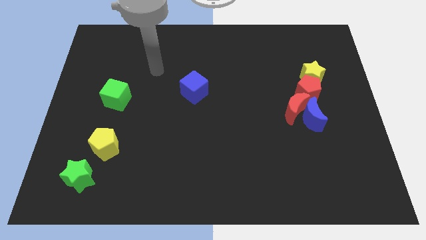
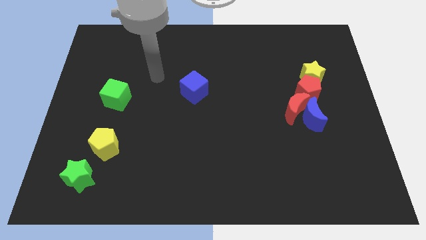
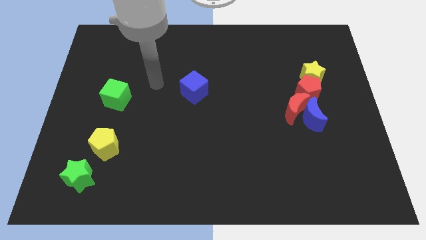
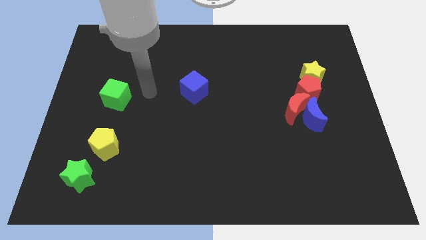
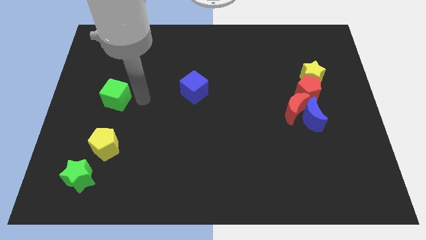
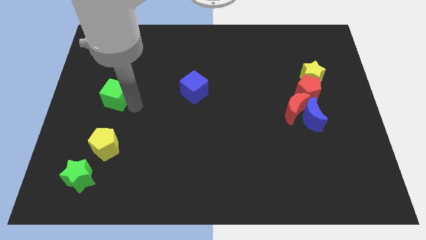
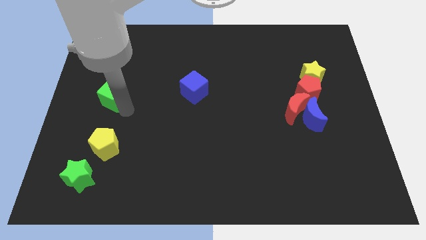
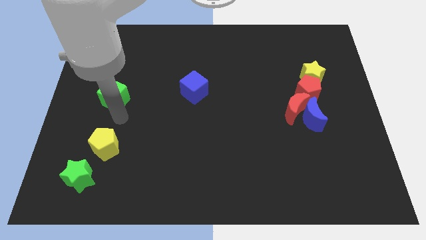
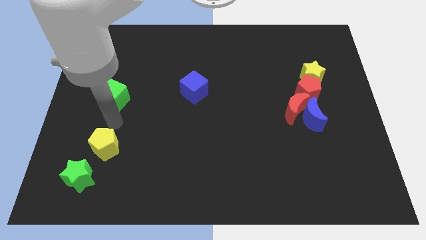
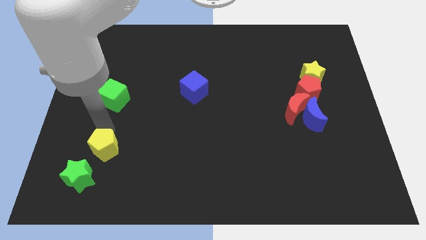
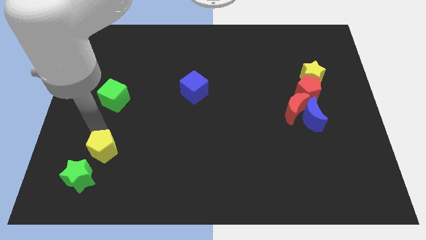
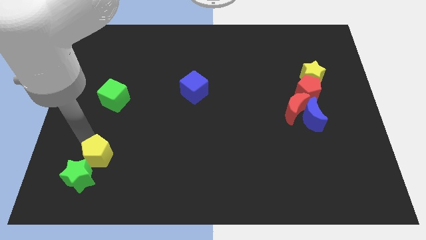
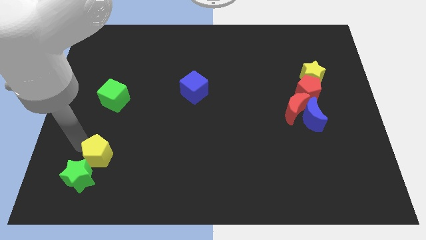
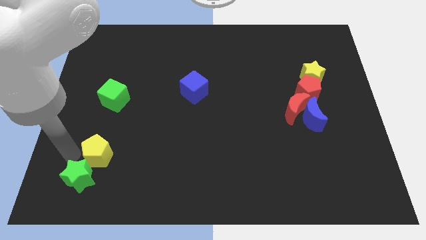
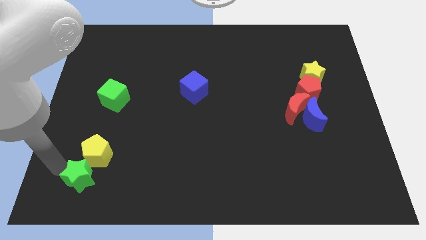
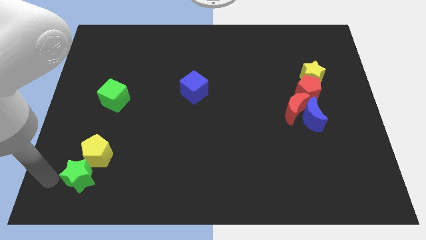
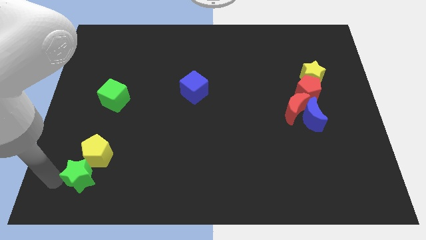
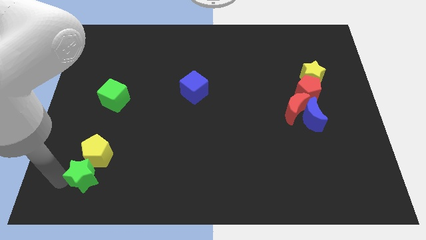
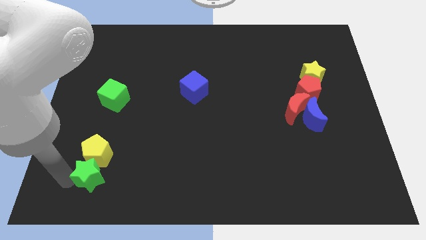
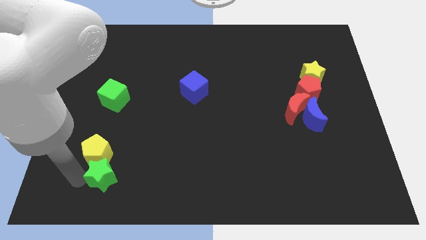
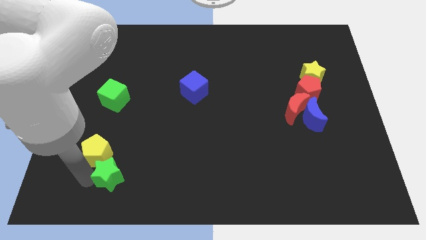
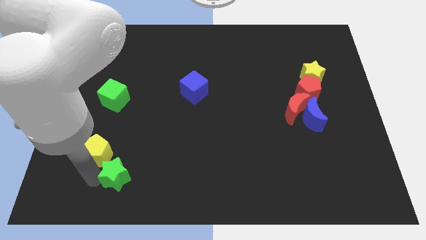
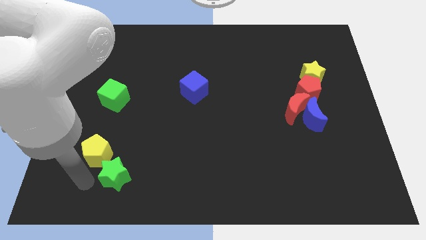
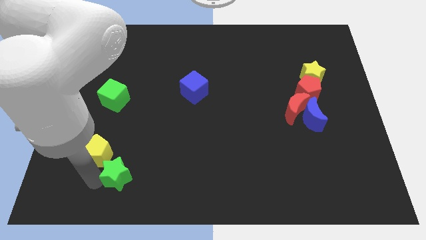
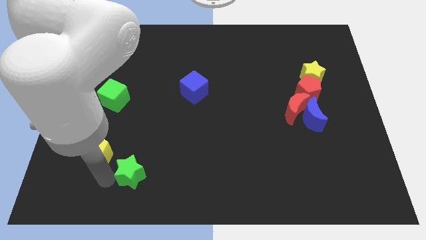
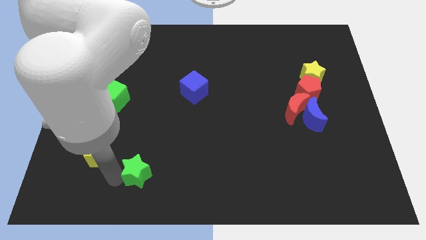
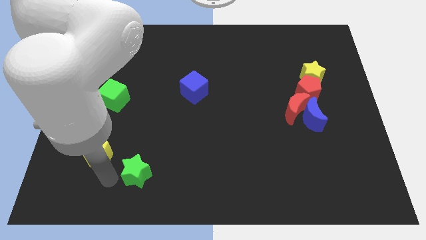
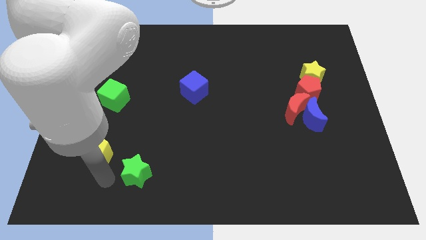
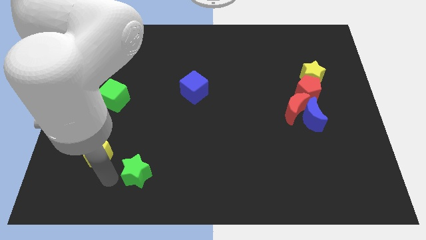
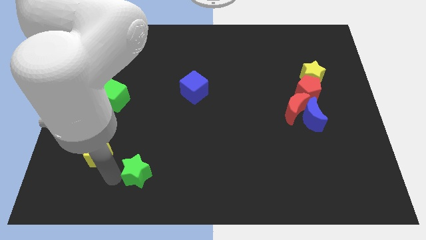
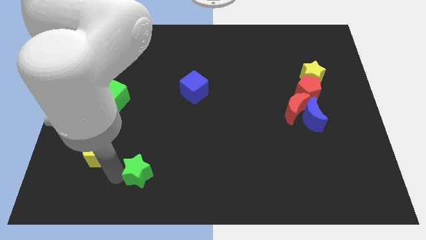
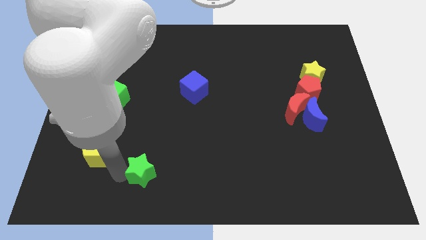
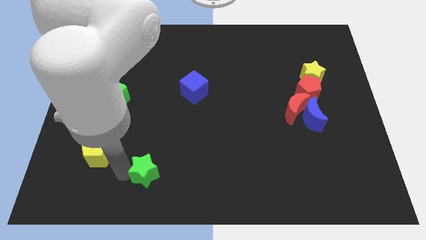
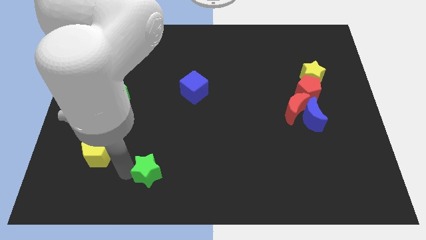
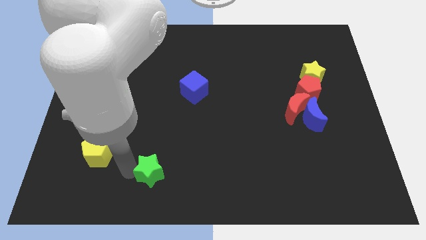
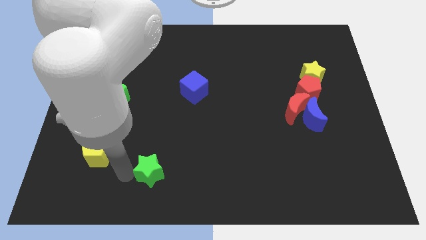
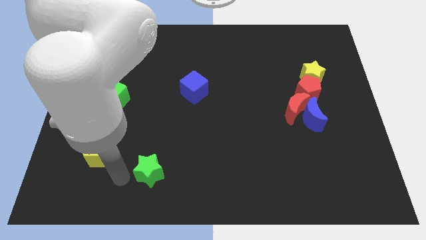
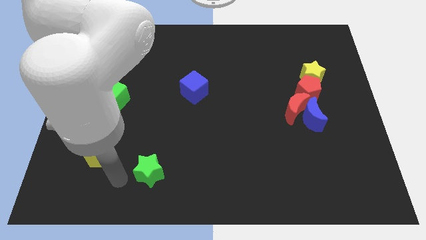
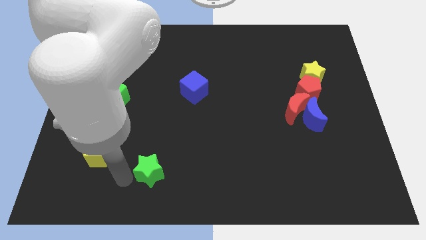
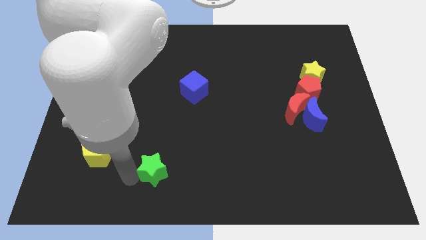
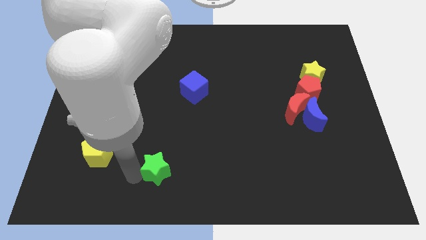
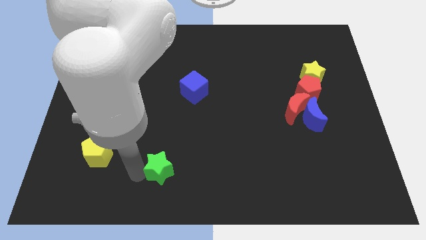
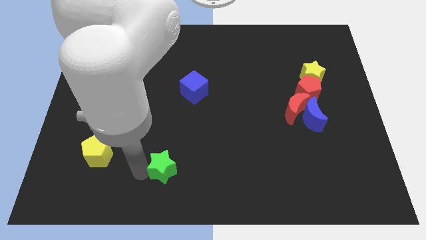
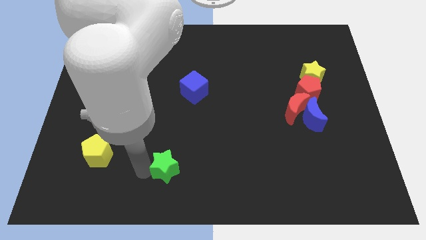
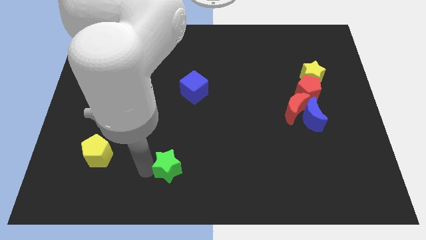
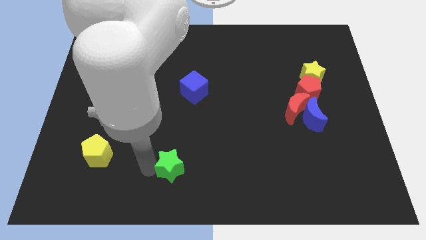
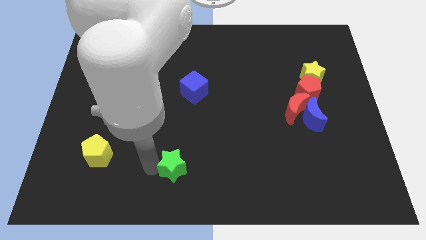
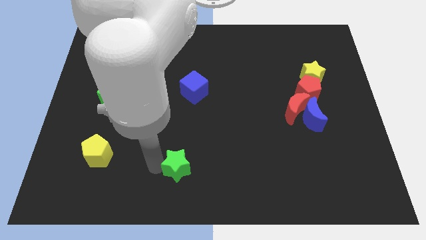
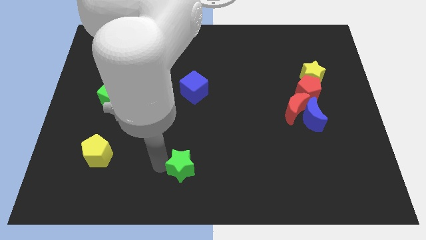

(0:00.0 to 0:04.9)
move the green star to the right

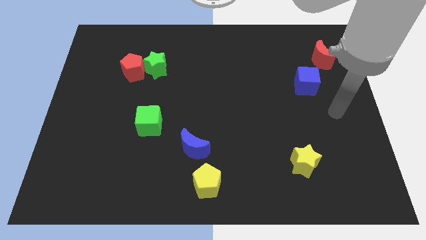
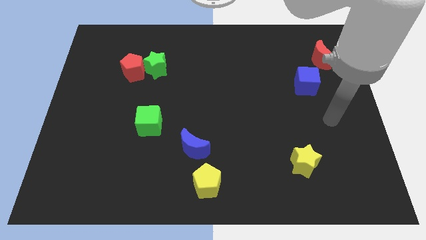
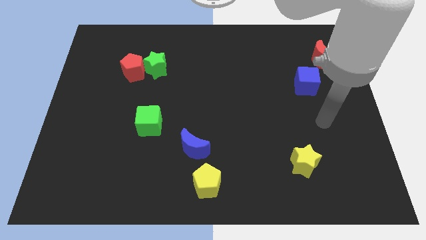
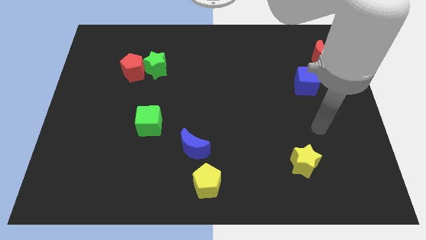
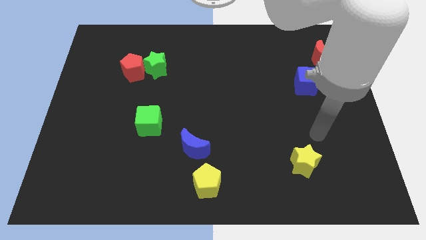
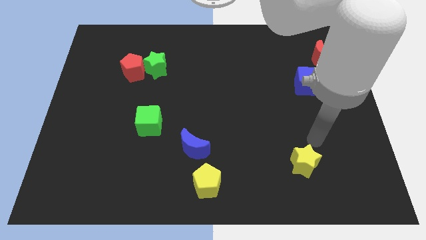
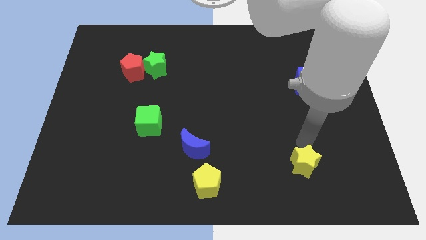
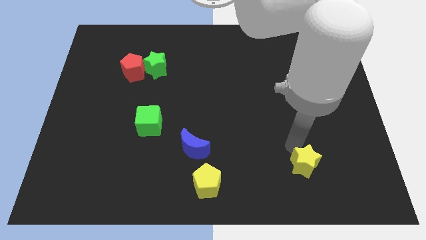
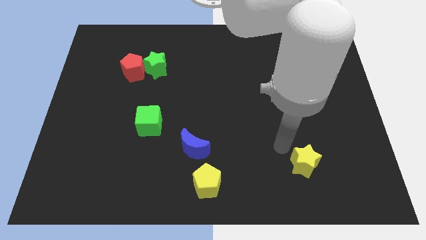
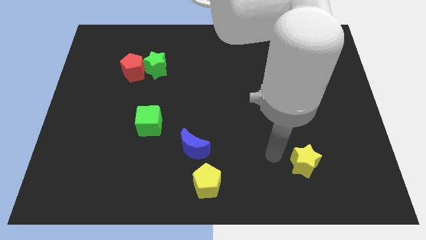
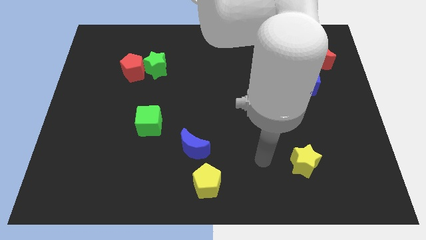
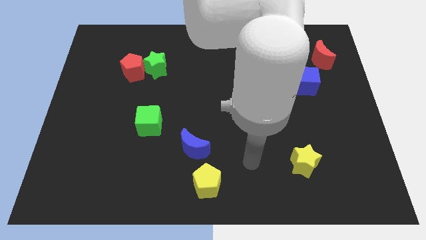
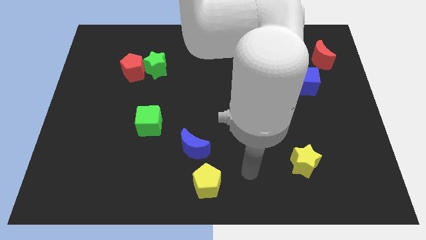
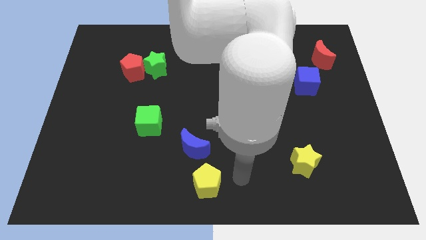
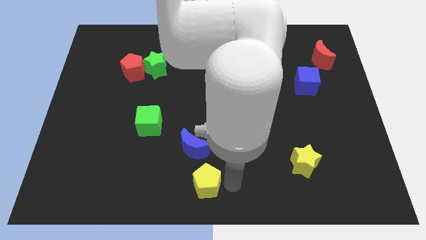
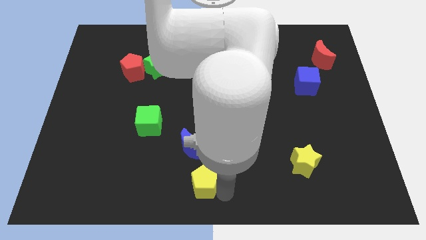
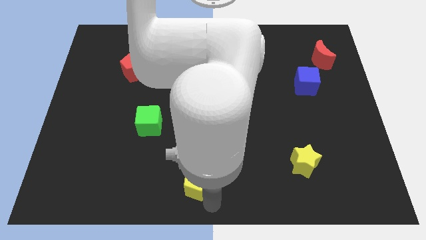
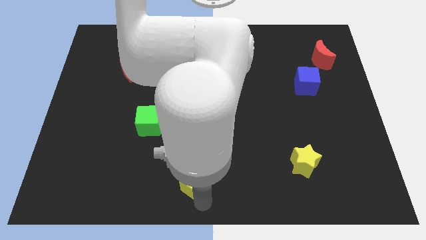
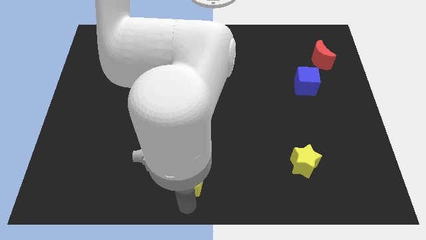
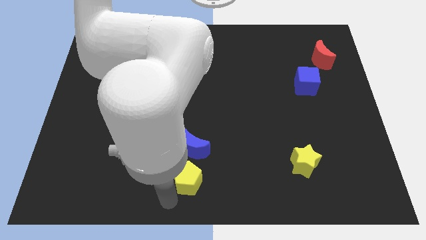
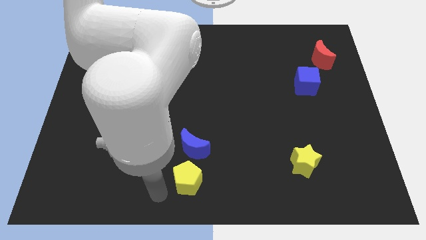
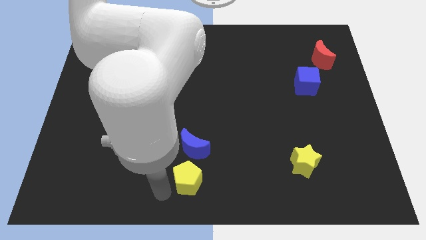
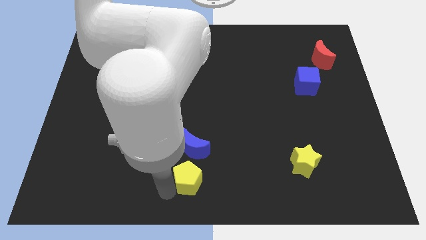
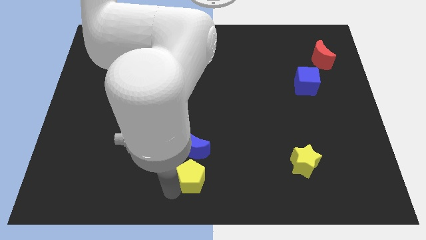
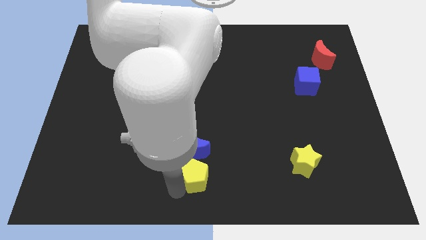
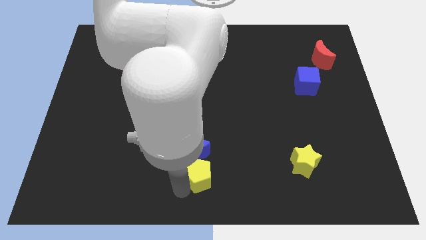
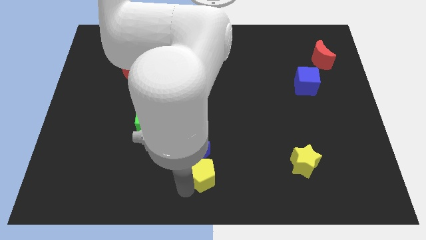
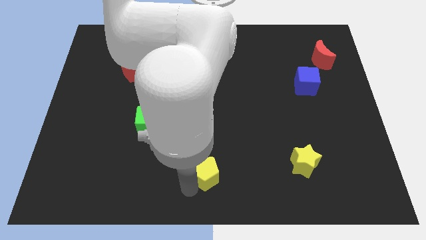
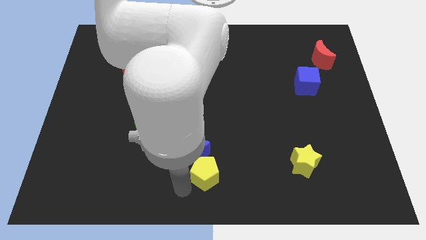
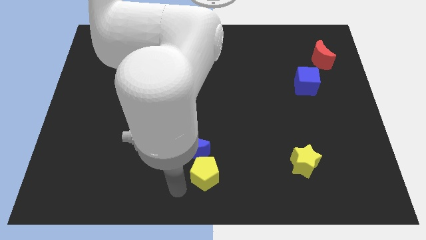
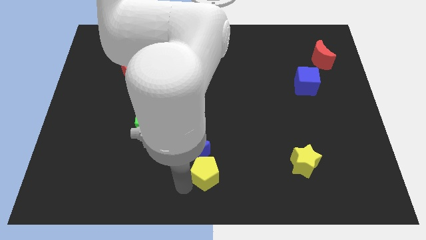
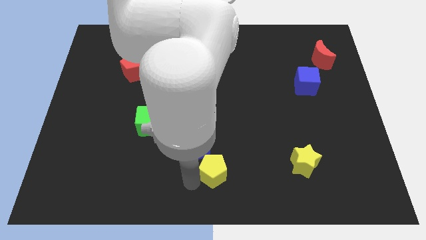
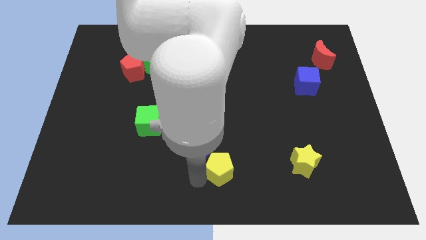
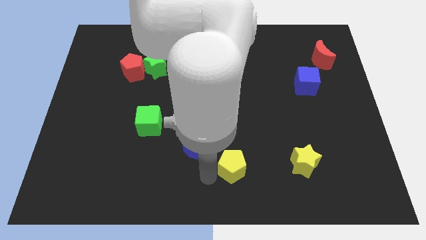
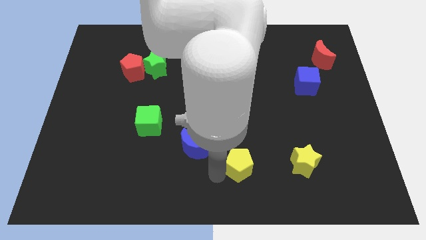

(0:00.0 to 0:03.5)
move the yellow pentagon up and right somewhat
